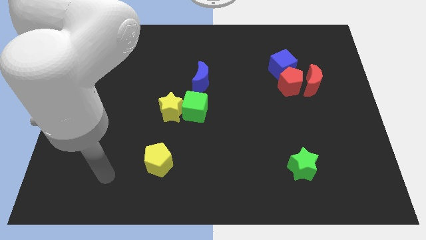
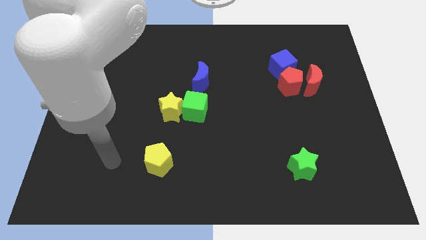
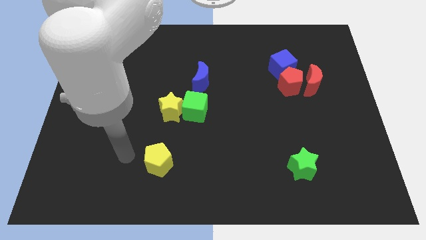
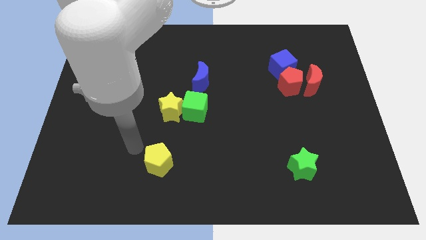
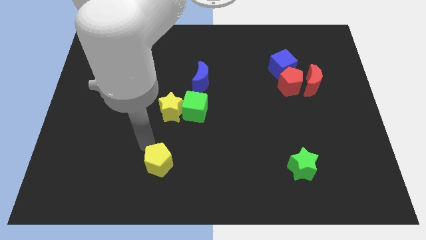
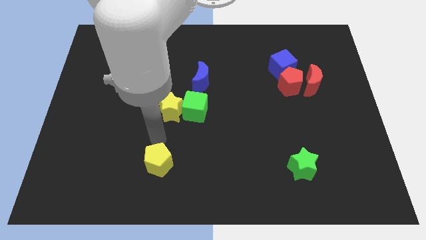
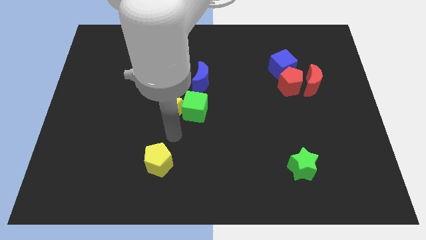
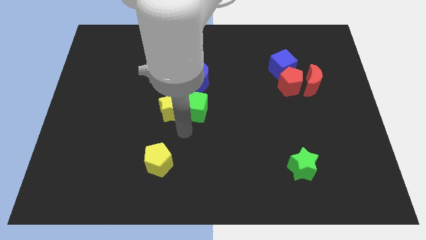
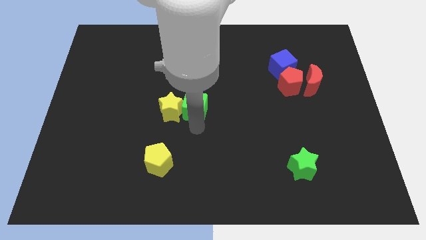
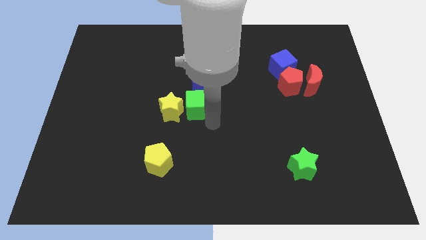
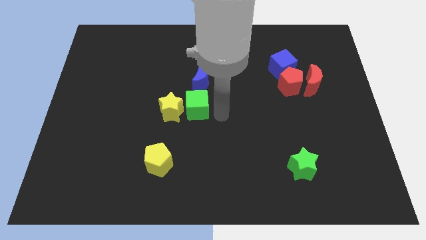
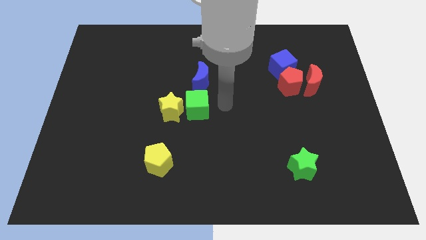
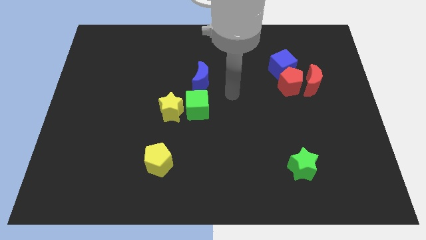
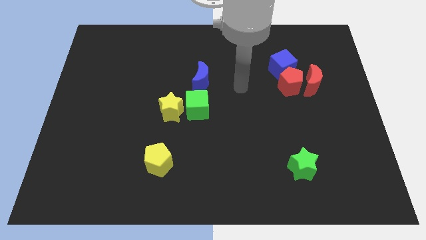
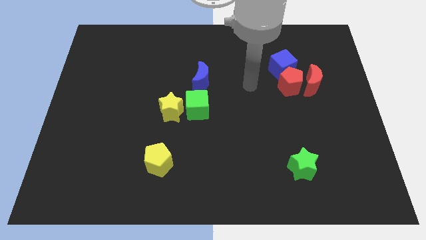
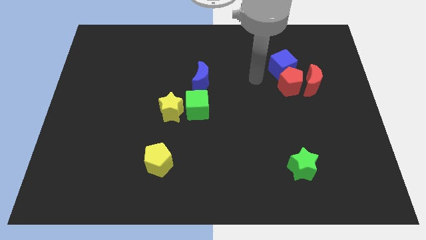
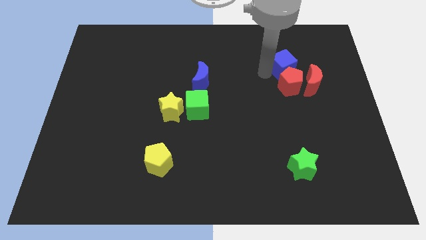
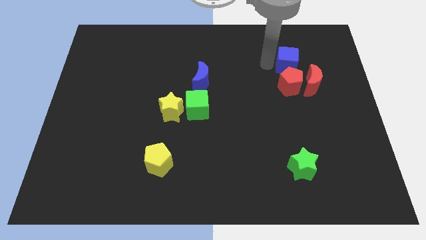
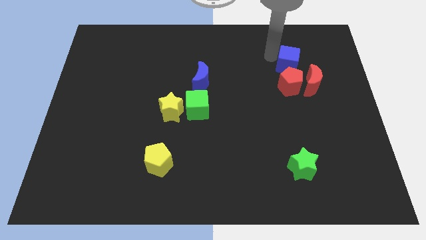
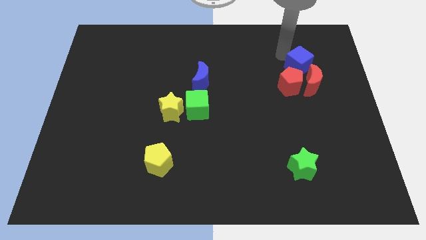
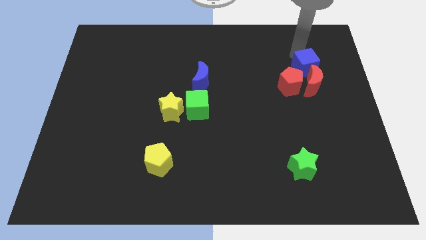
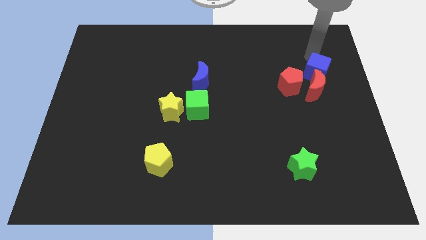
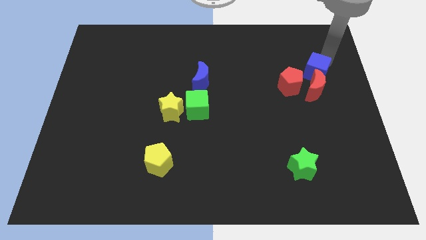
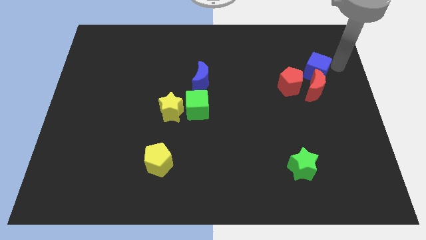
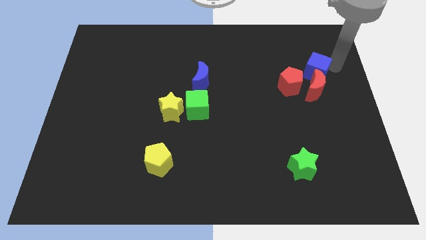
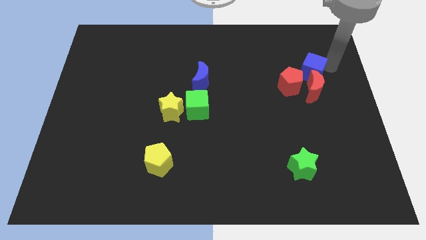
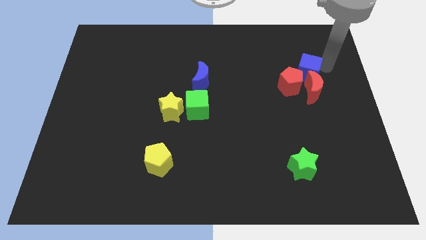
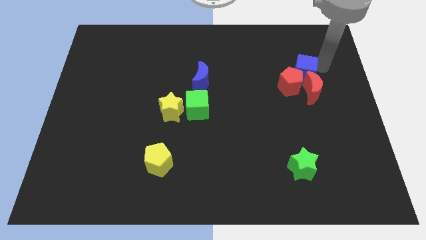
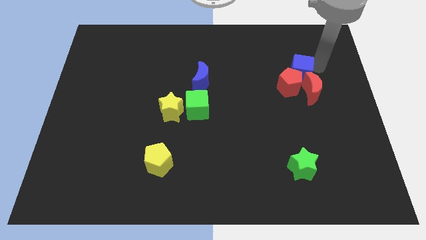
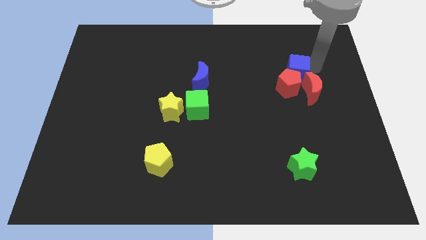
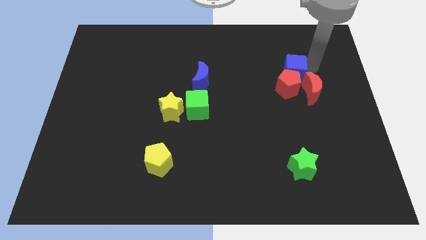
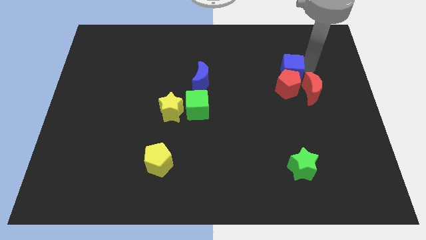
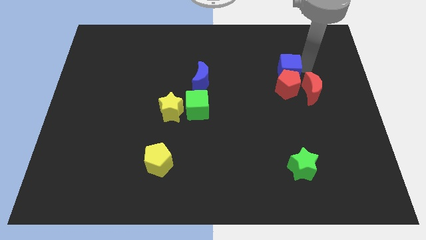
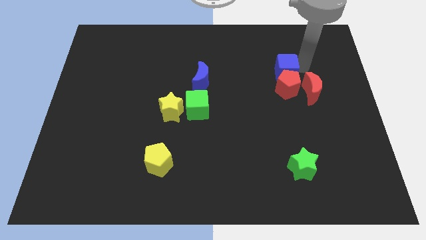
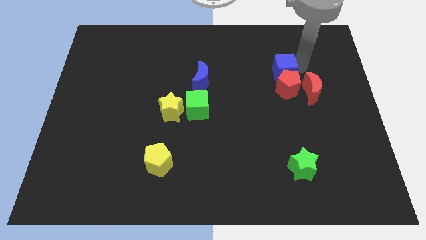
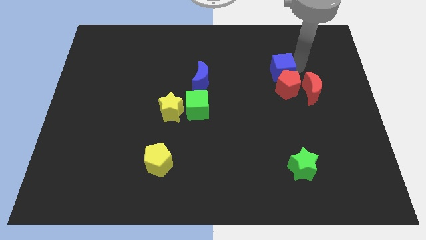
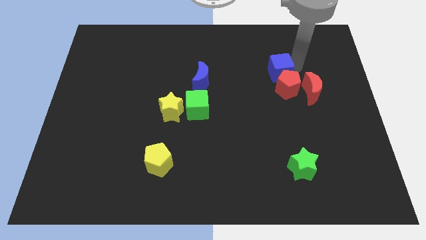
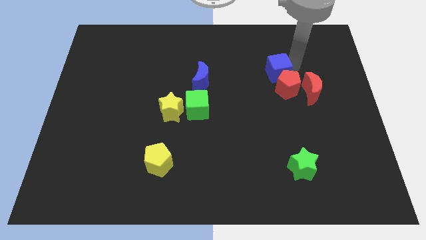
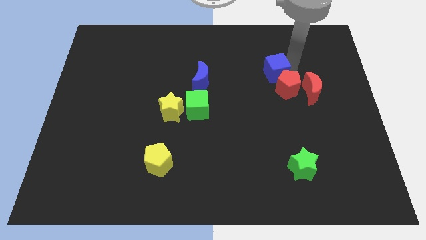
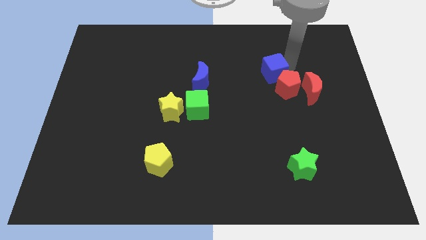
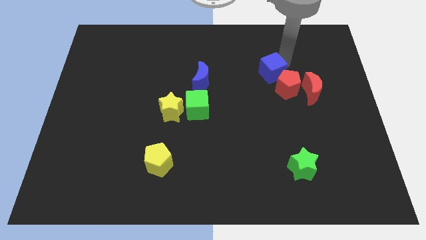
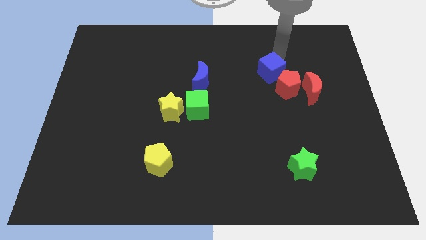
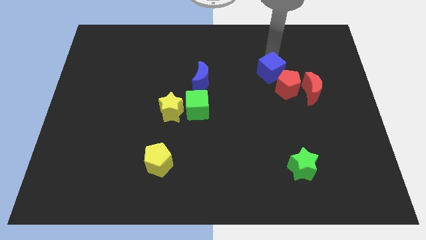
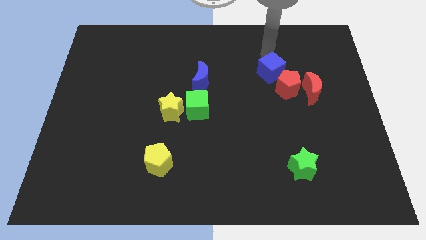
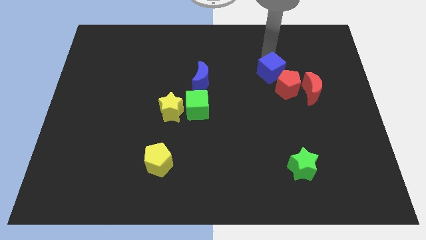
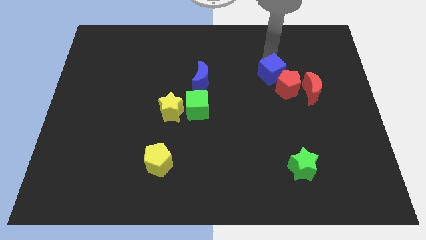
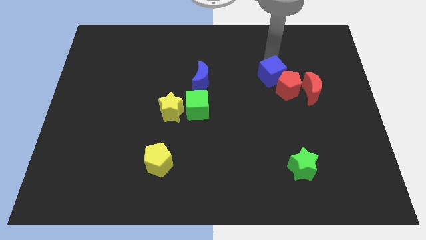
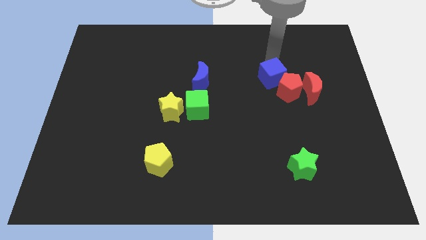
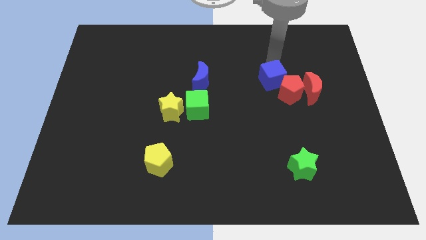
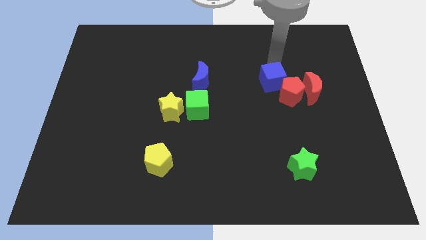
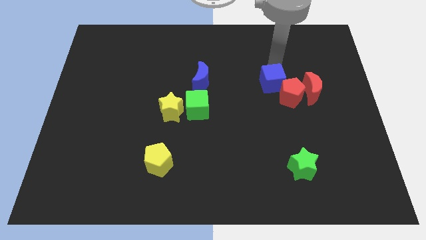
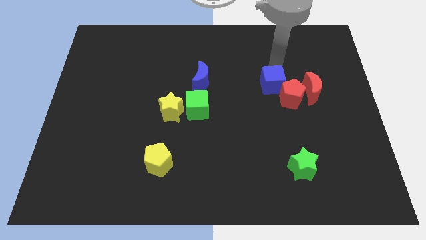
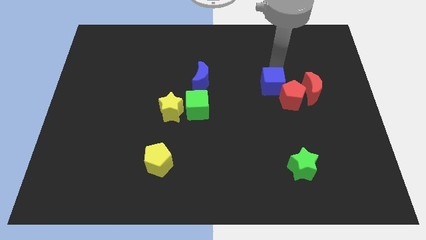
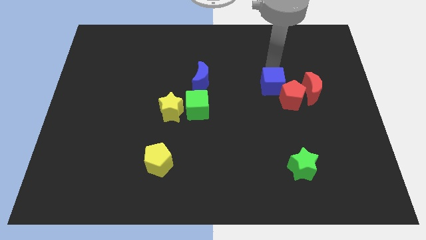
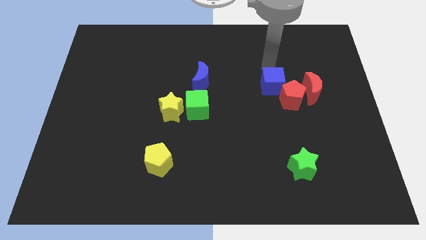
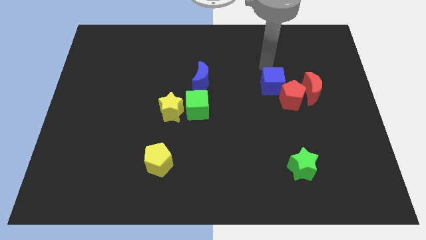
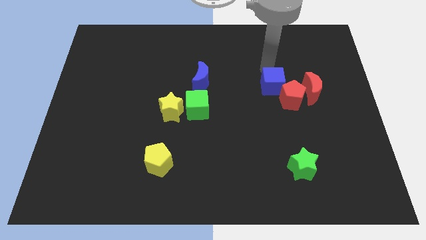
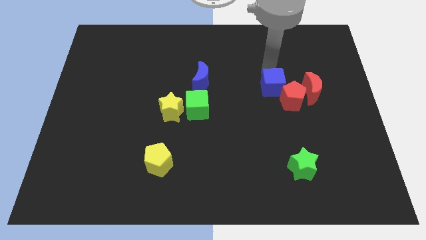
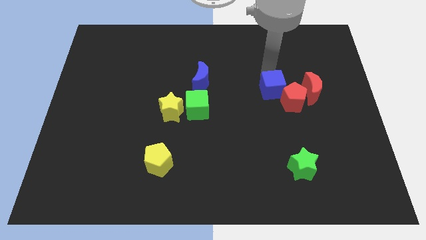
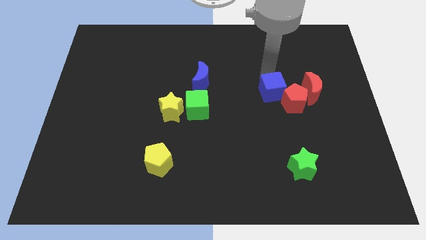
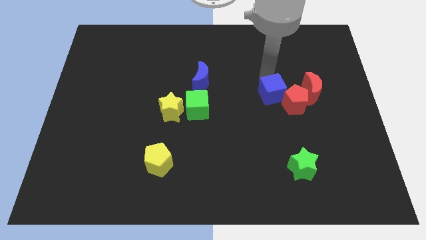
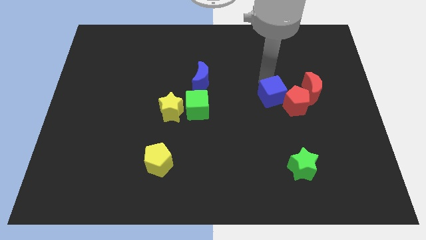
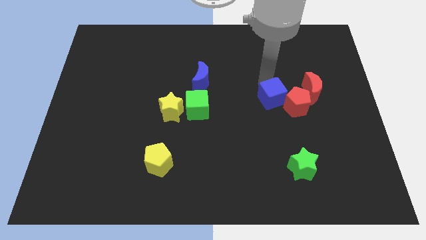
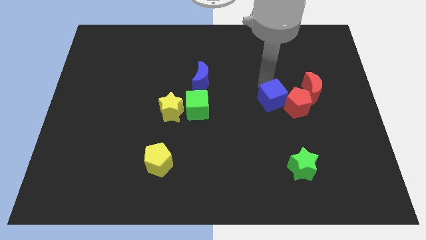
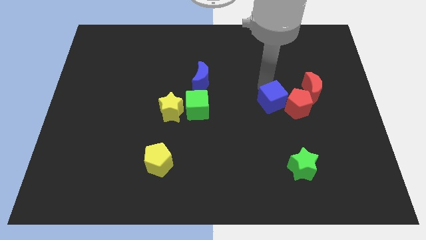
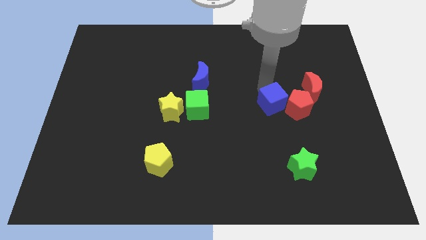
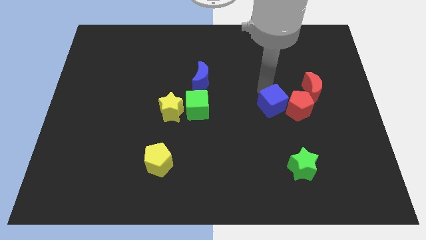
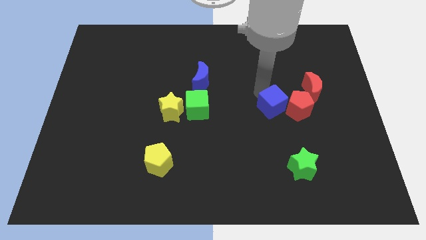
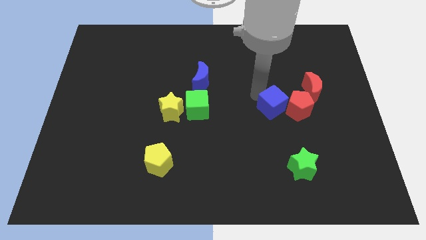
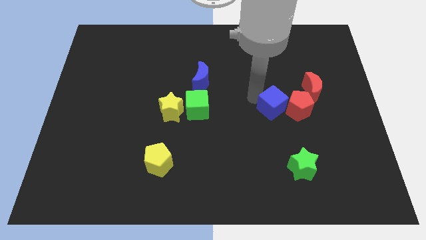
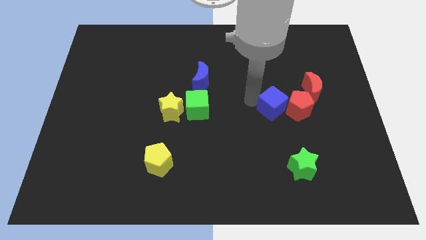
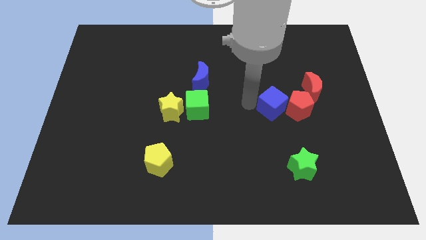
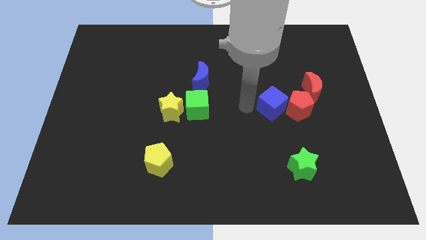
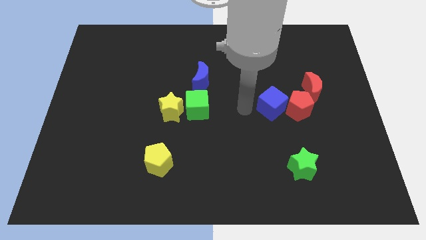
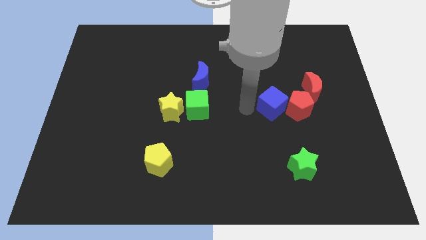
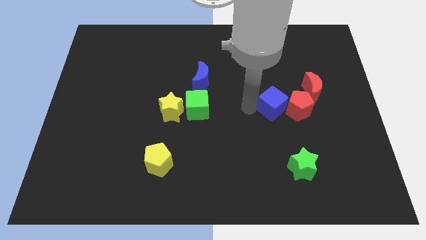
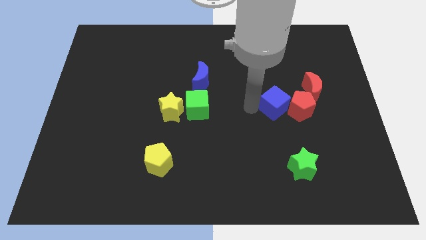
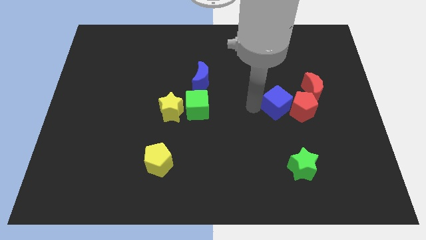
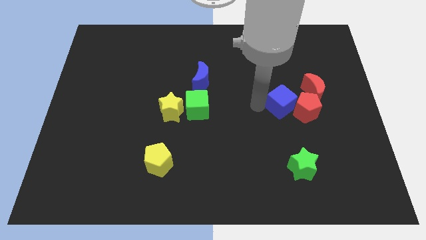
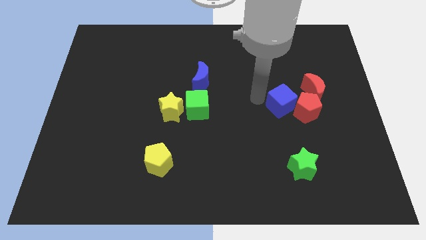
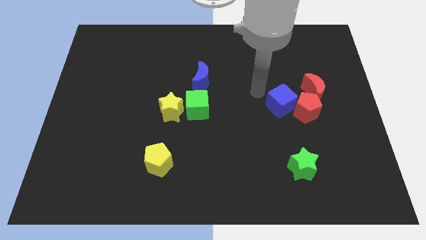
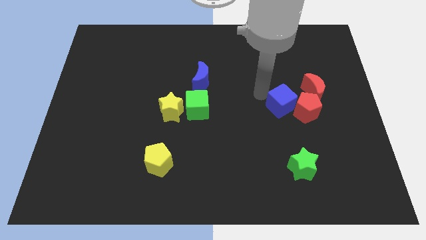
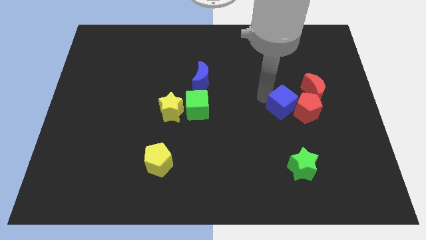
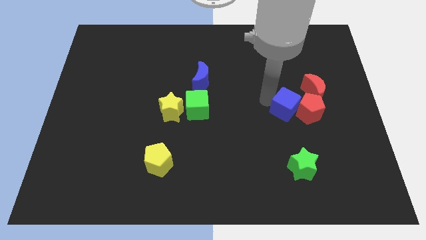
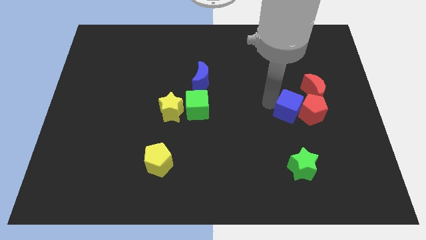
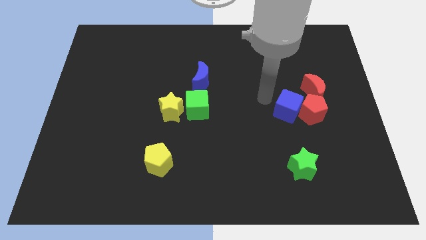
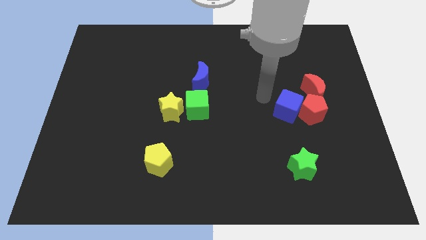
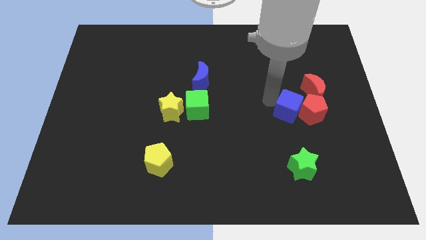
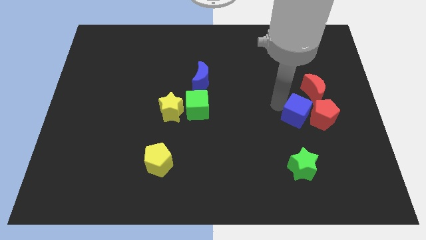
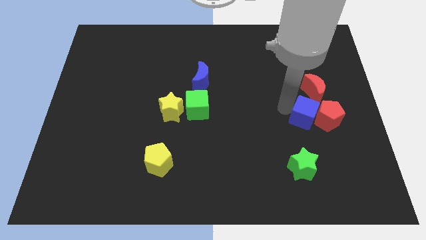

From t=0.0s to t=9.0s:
put the blue cube to the bottom of the red moon
